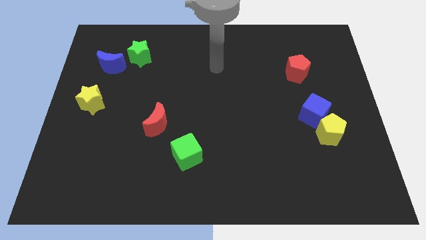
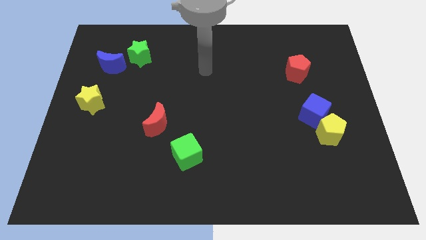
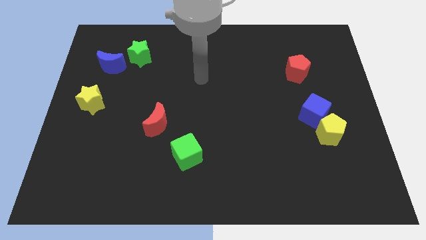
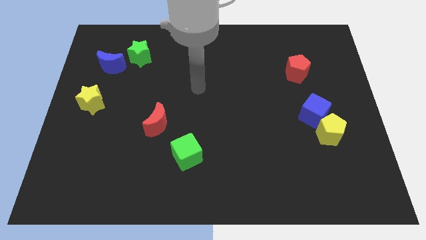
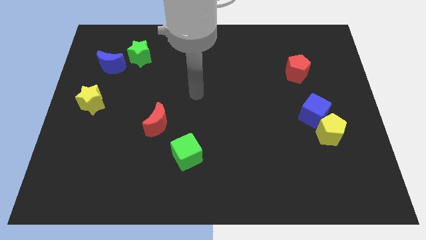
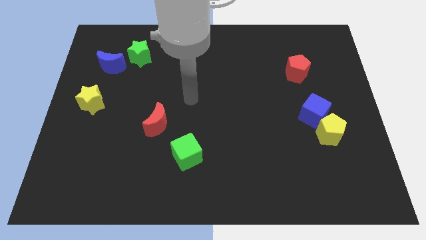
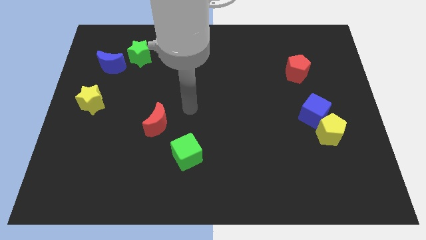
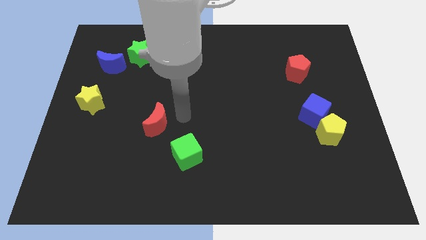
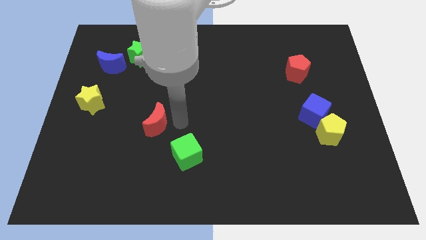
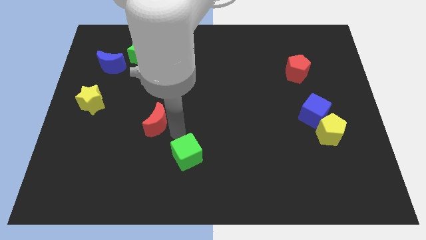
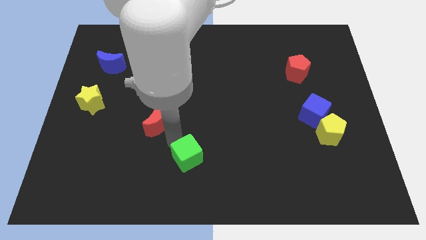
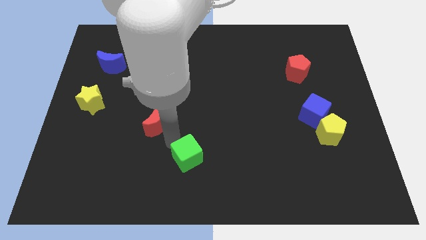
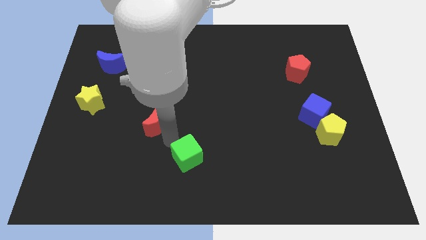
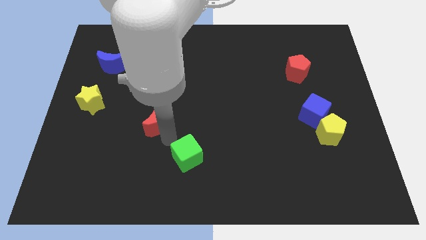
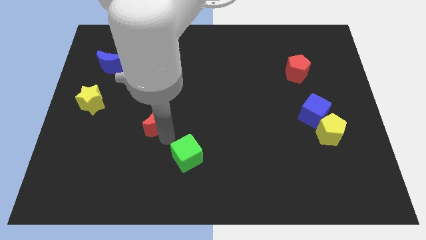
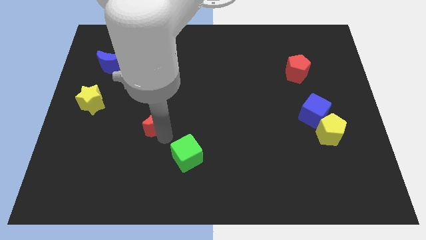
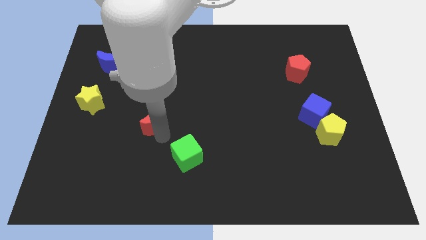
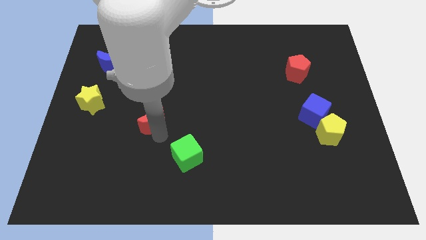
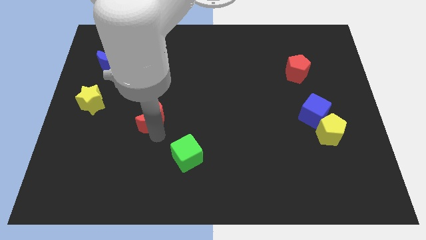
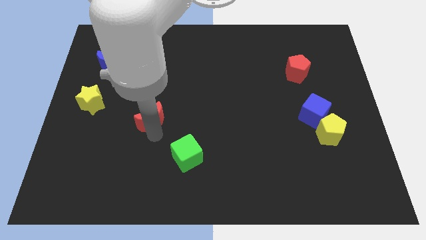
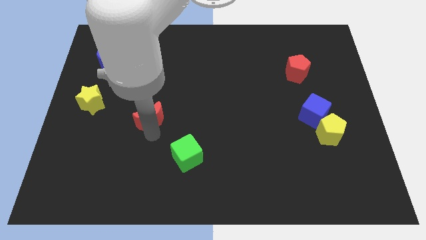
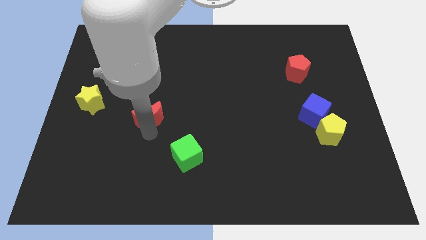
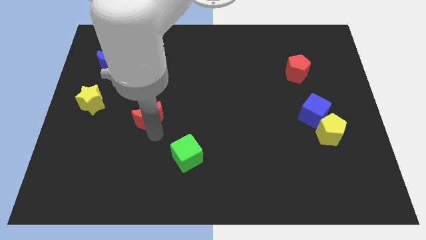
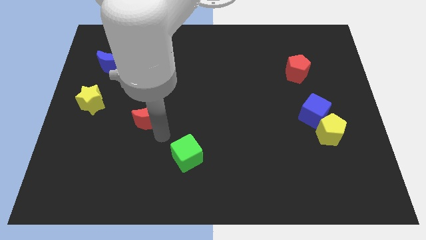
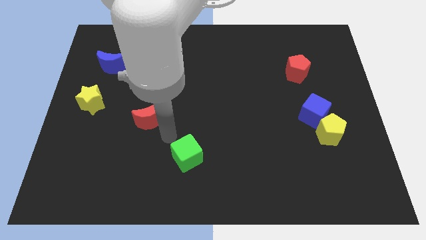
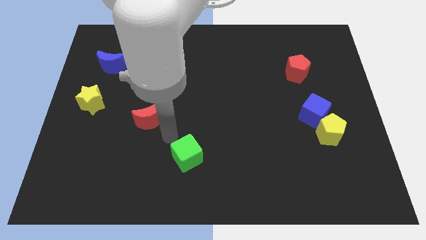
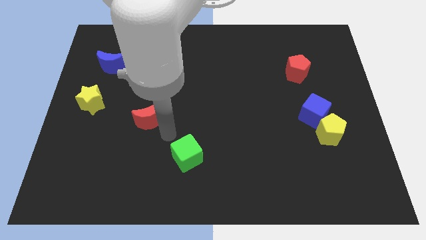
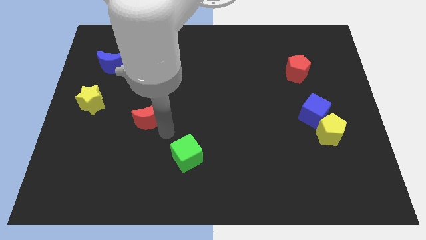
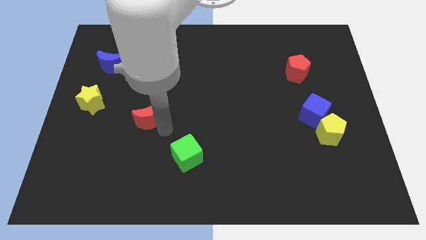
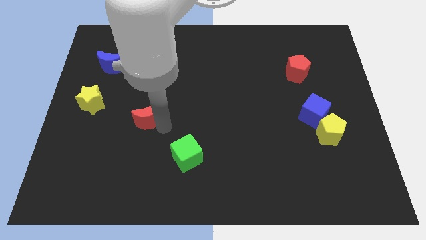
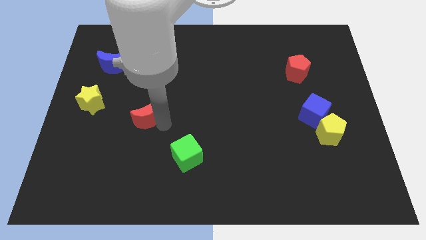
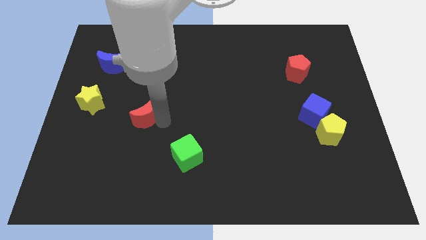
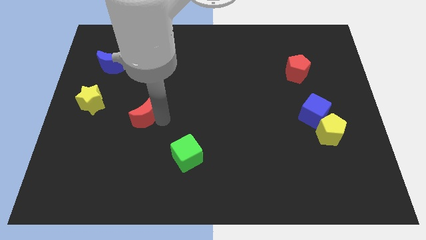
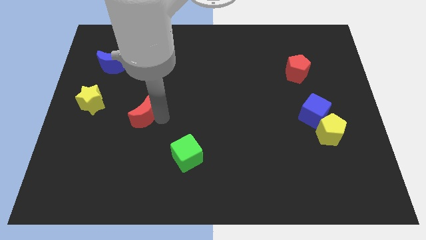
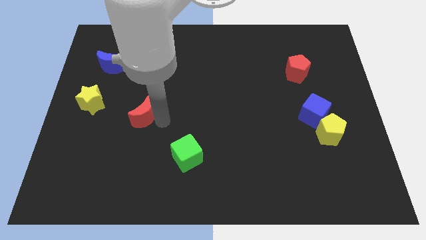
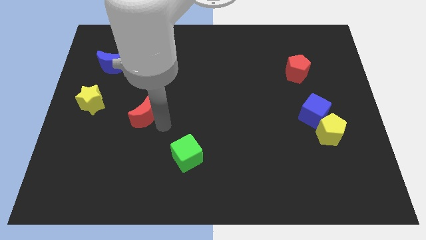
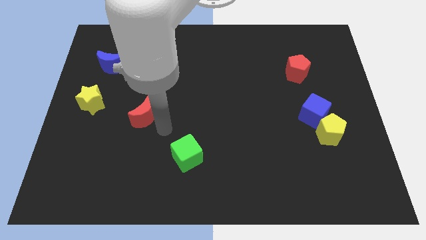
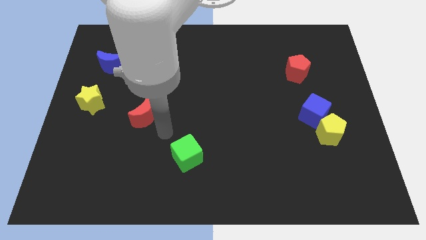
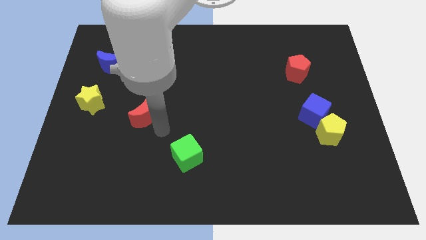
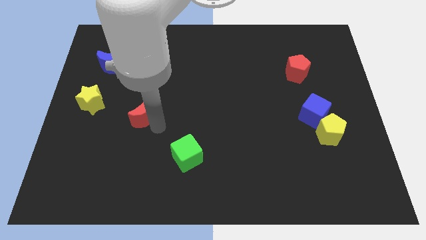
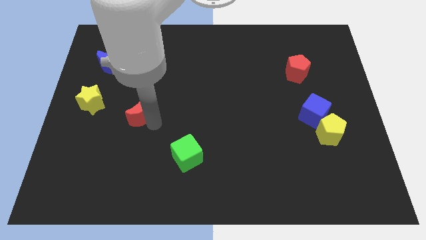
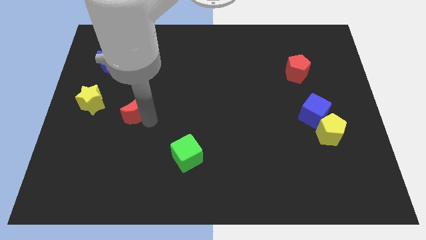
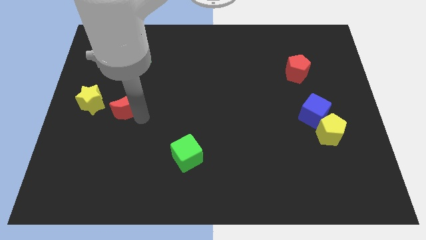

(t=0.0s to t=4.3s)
slightly move the red moon up and to the left diagonally

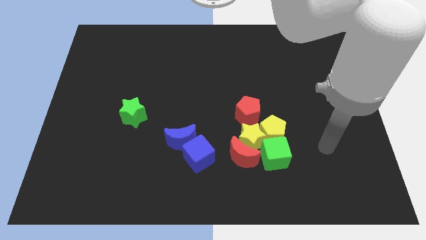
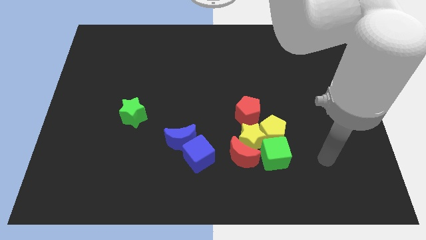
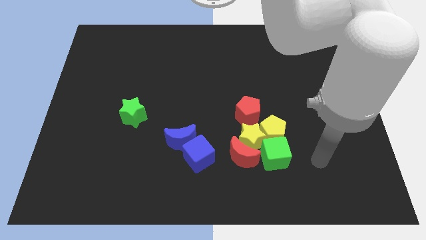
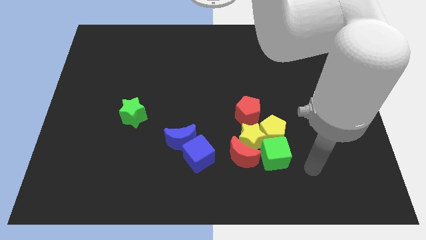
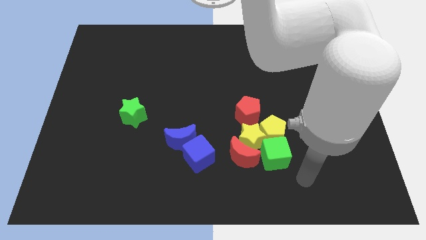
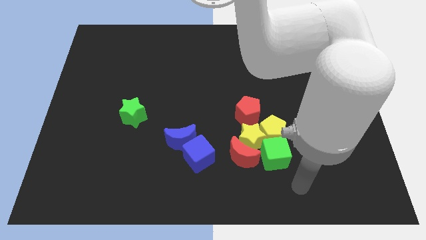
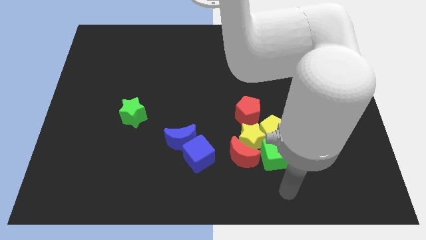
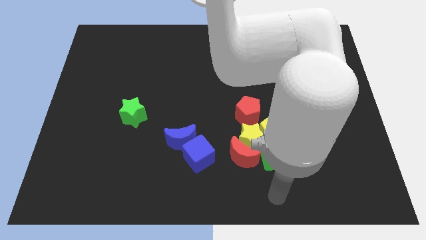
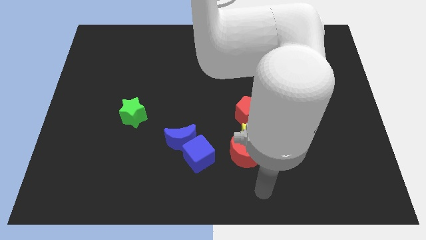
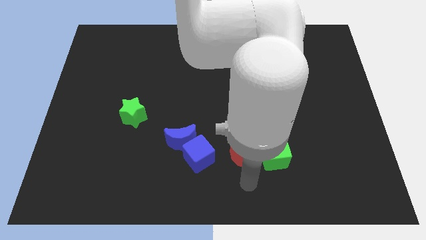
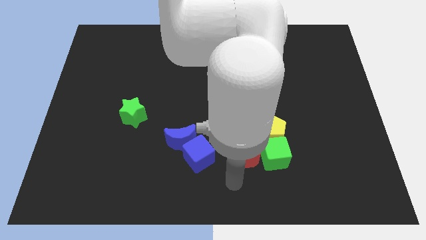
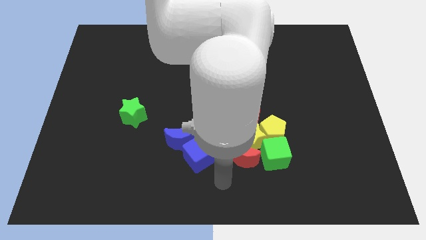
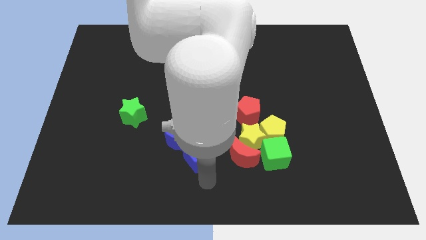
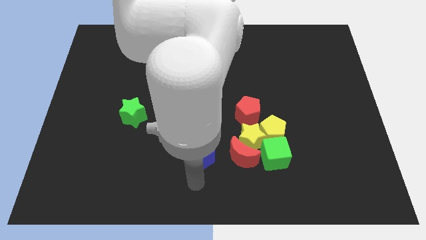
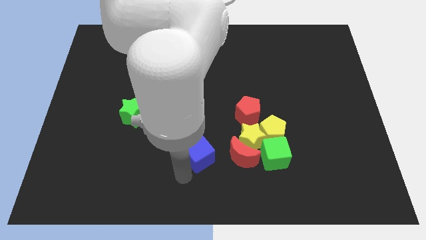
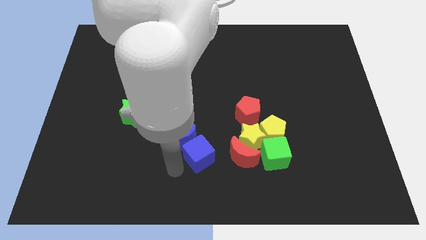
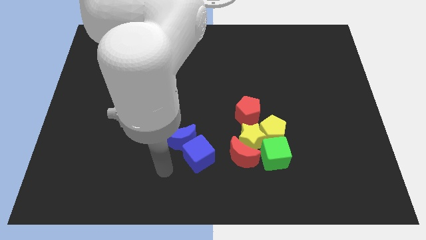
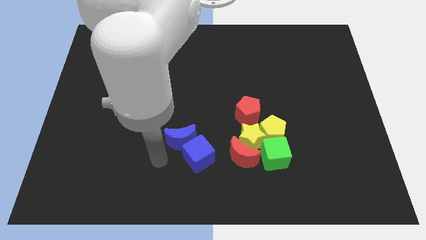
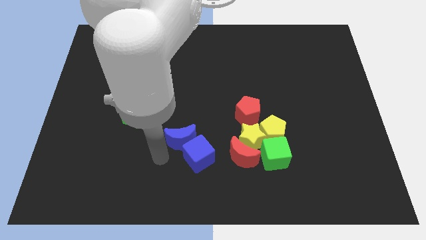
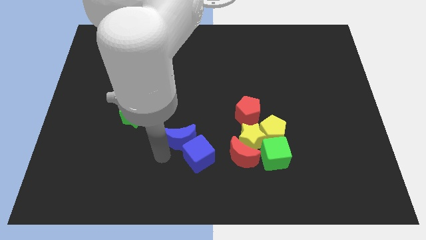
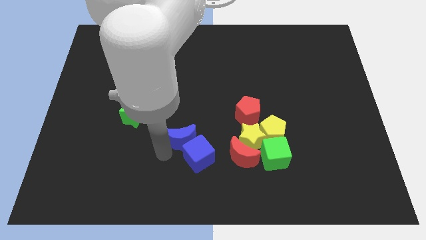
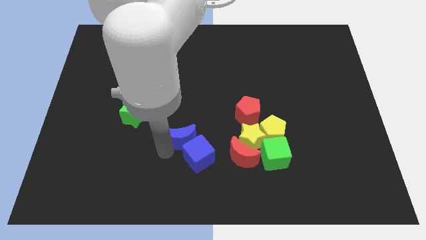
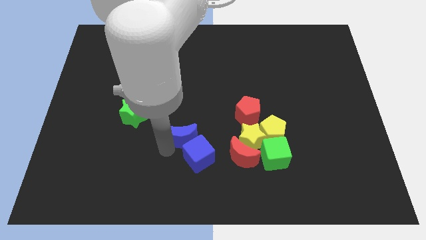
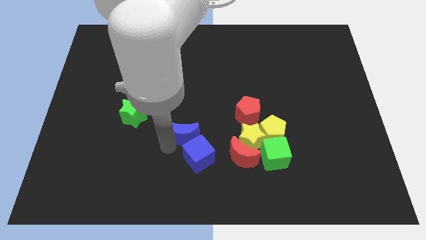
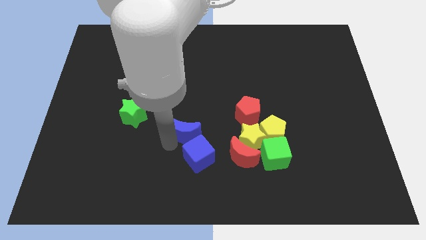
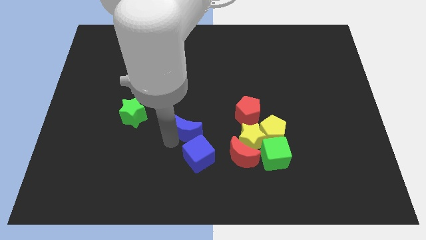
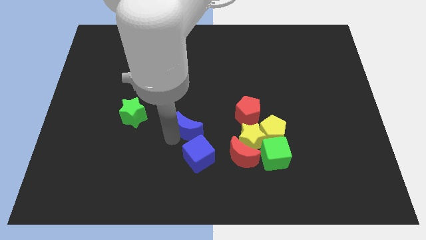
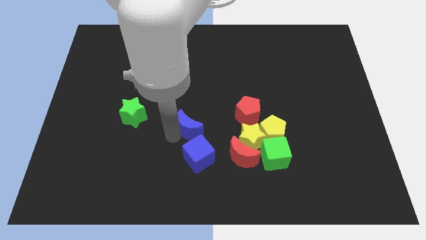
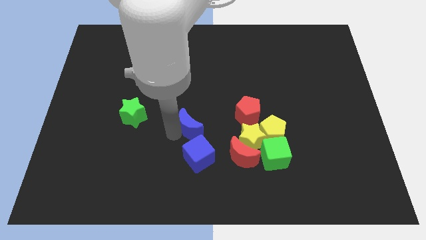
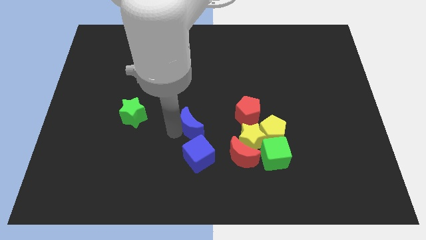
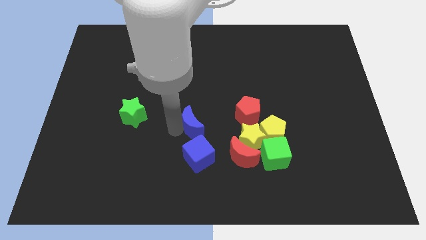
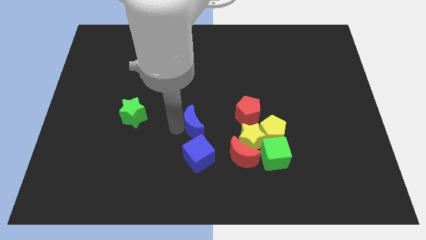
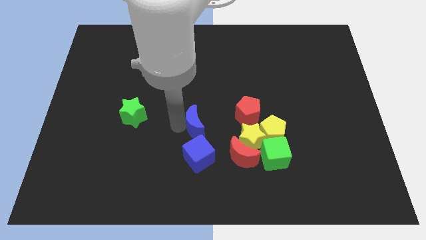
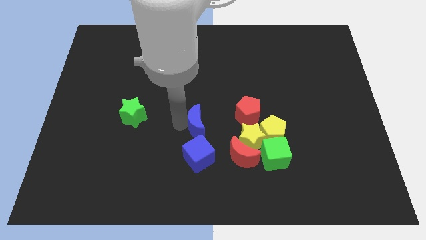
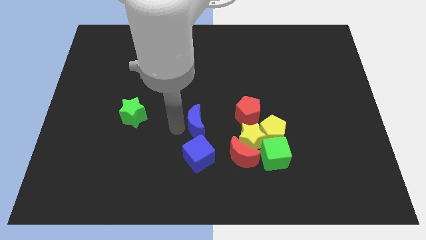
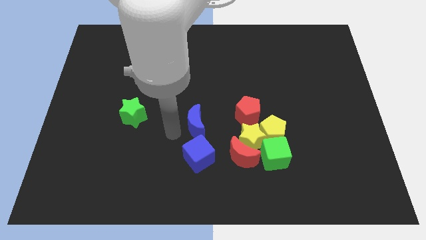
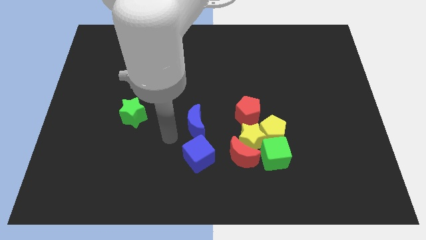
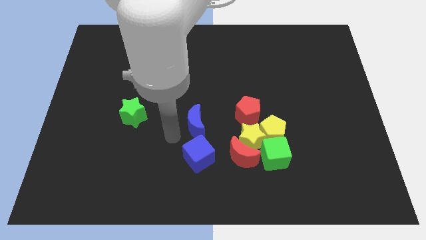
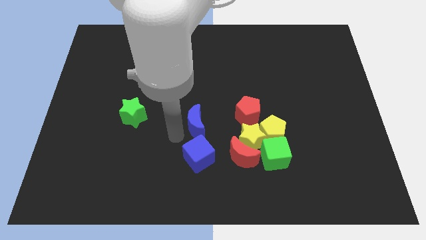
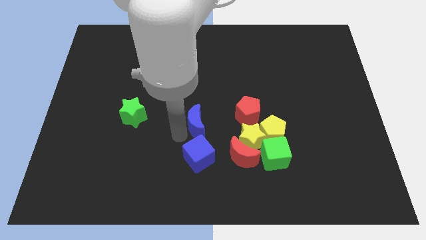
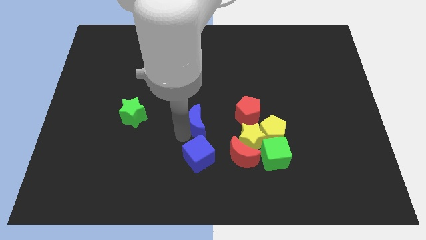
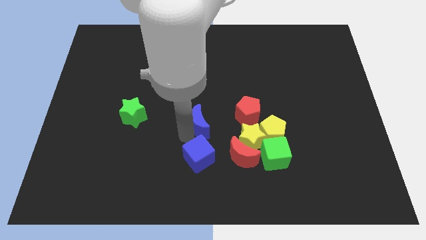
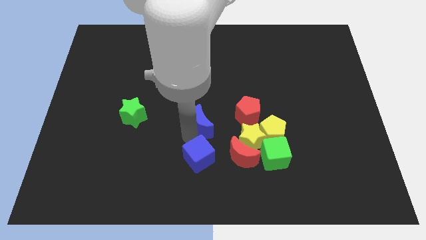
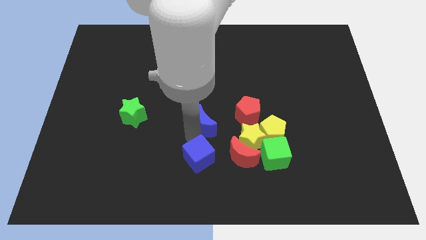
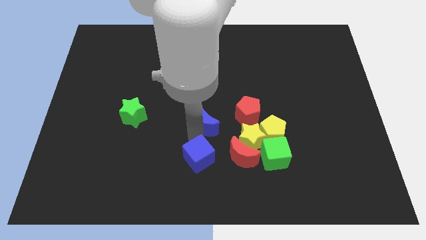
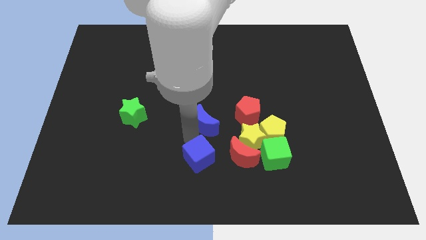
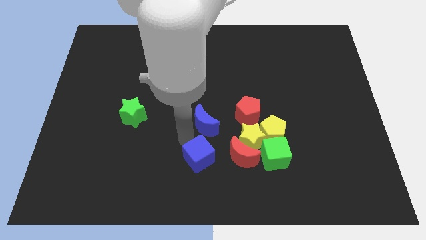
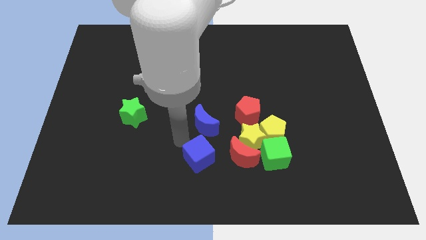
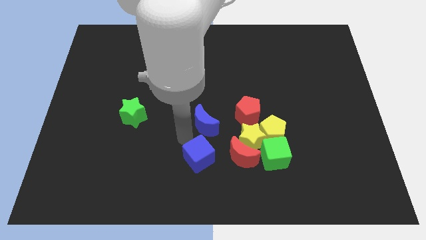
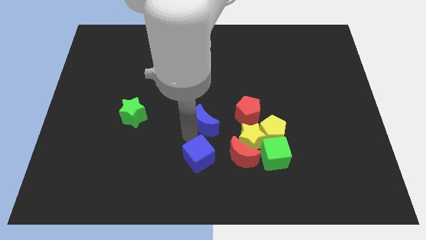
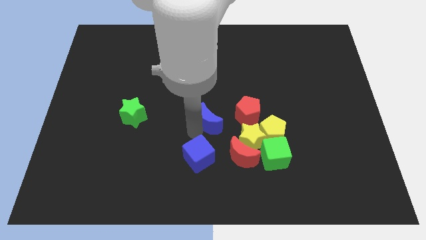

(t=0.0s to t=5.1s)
slide the blue moon diagonally up and right somewhat
